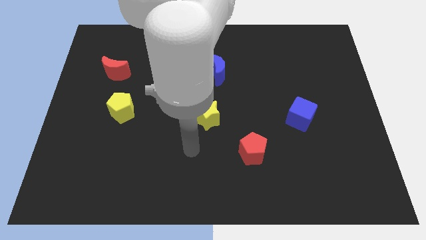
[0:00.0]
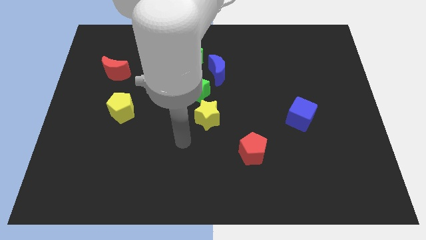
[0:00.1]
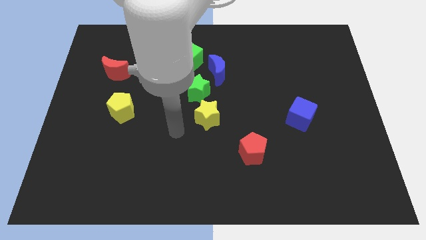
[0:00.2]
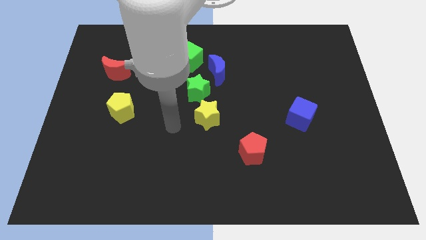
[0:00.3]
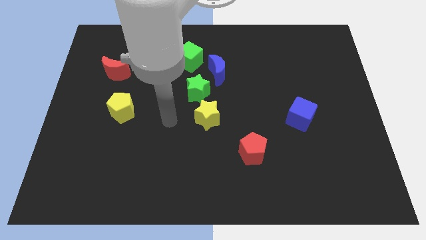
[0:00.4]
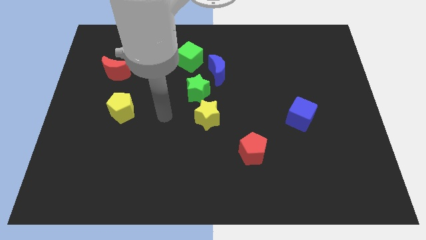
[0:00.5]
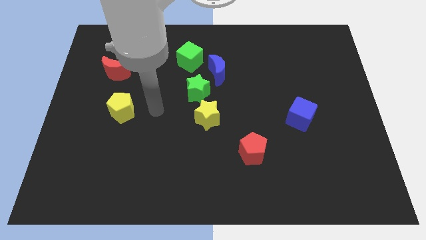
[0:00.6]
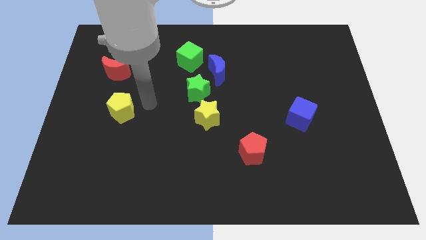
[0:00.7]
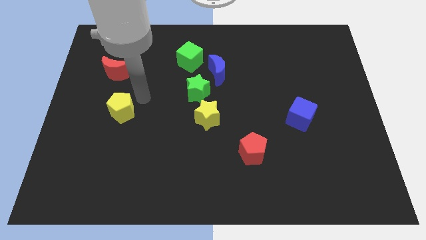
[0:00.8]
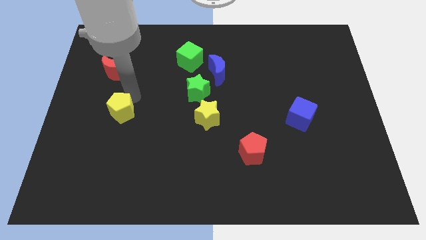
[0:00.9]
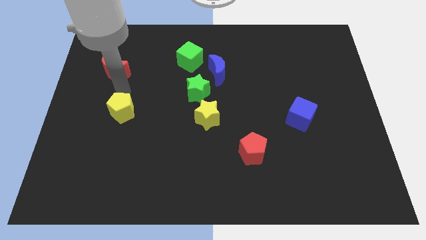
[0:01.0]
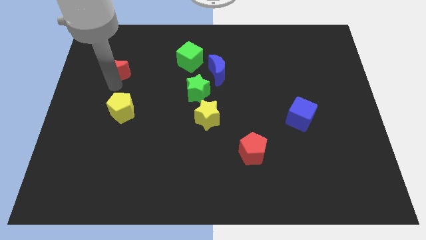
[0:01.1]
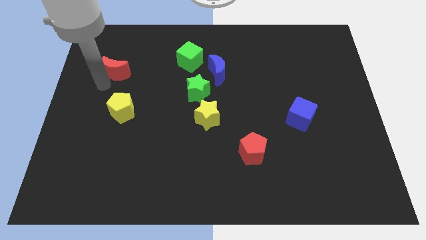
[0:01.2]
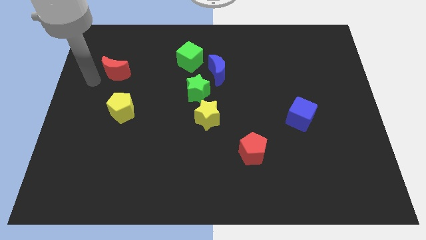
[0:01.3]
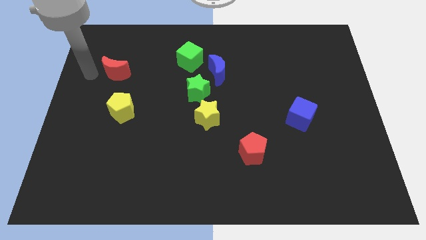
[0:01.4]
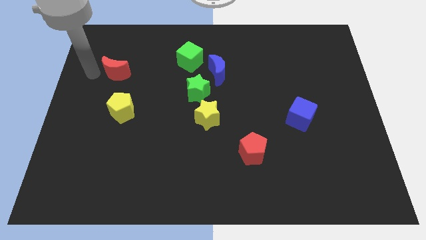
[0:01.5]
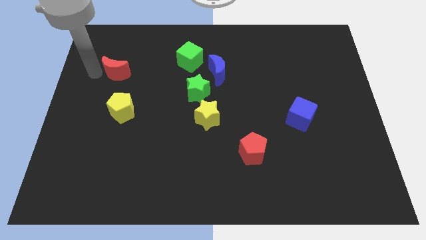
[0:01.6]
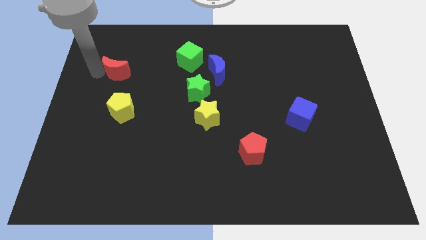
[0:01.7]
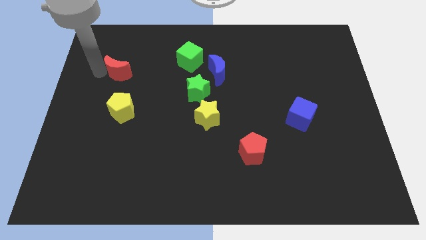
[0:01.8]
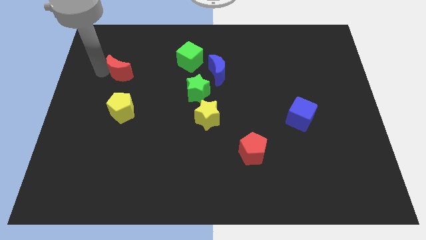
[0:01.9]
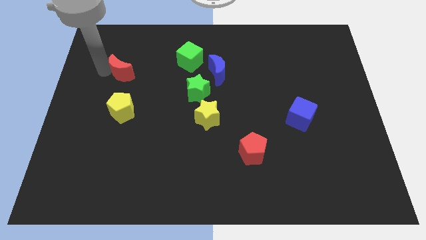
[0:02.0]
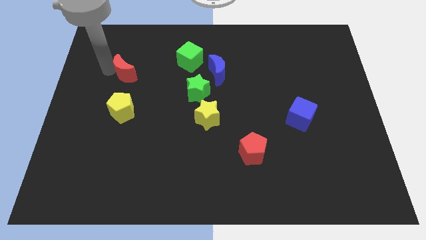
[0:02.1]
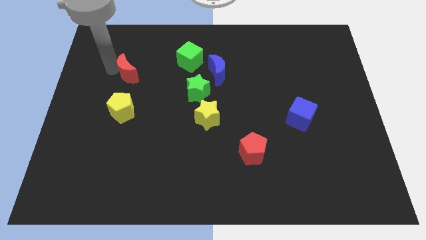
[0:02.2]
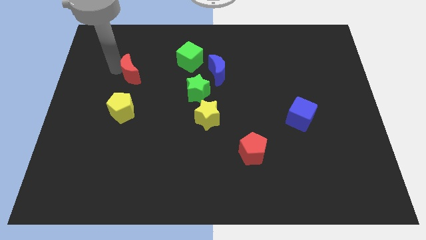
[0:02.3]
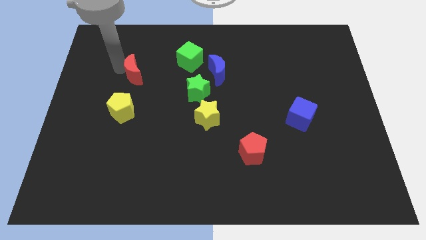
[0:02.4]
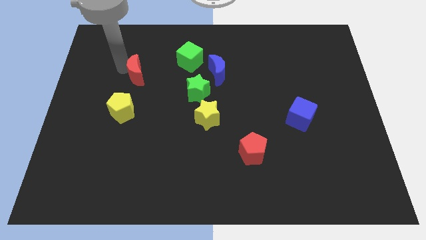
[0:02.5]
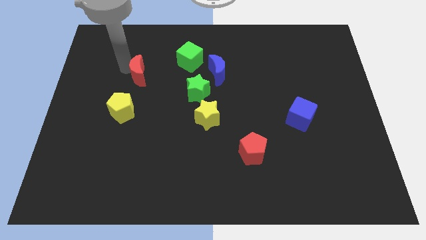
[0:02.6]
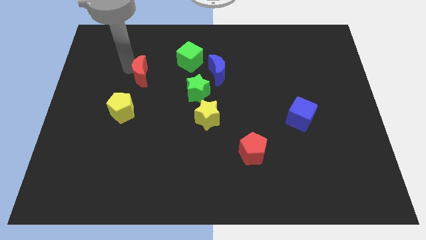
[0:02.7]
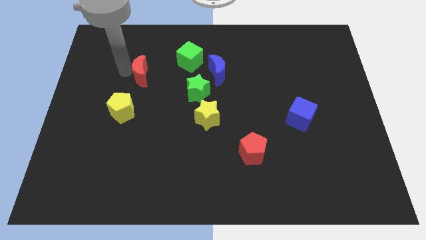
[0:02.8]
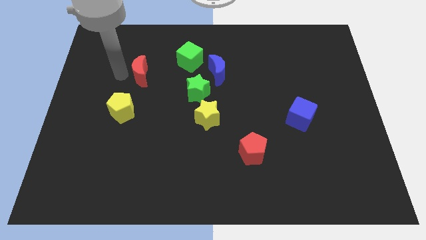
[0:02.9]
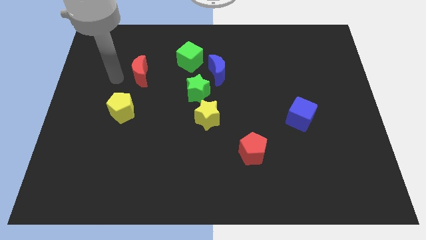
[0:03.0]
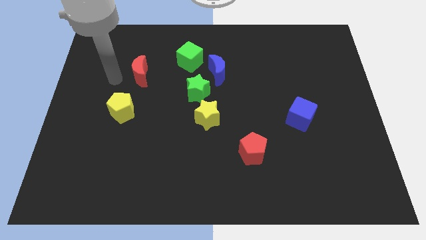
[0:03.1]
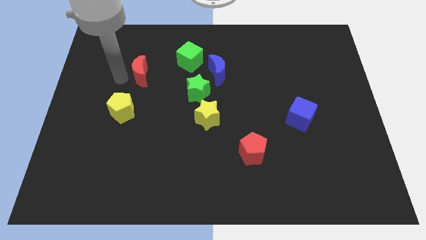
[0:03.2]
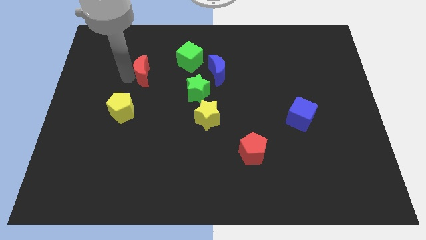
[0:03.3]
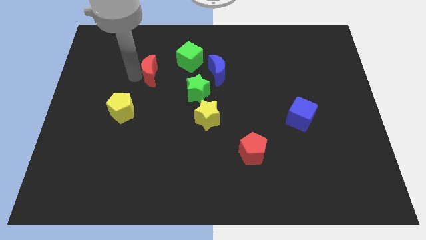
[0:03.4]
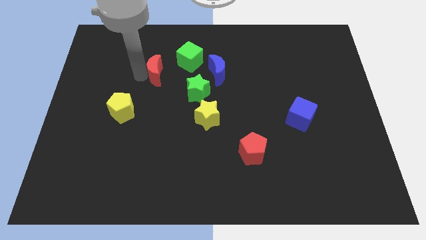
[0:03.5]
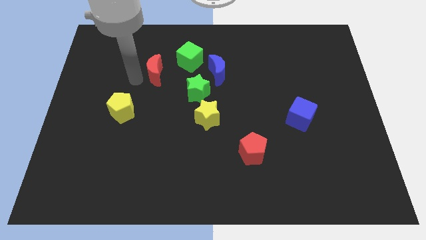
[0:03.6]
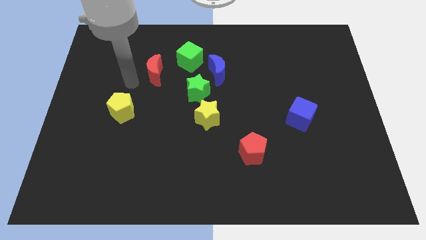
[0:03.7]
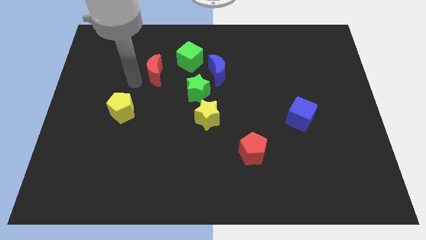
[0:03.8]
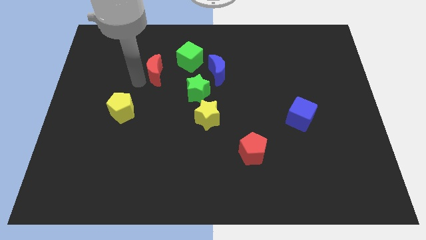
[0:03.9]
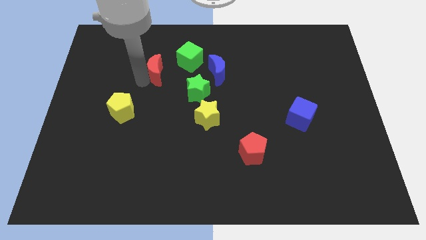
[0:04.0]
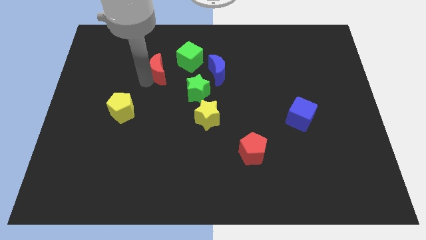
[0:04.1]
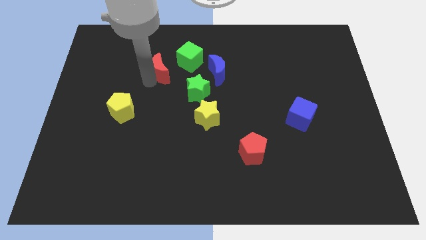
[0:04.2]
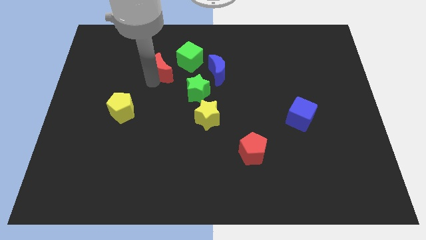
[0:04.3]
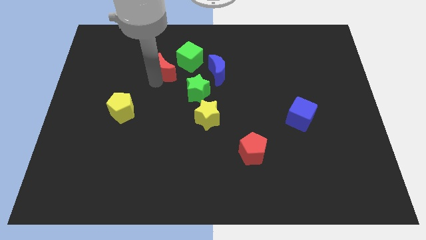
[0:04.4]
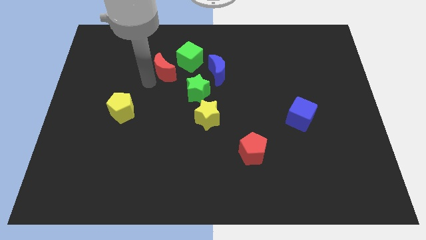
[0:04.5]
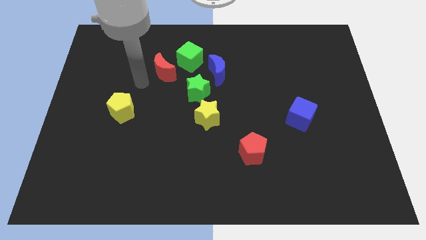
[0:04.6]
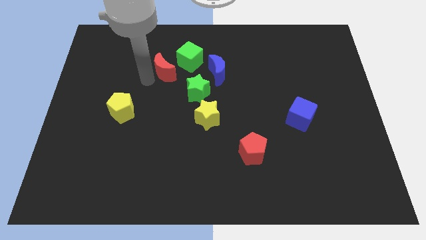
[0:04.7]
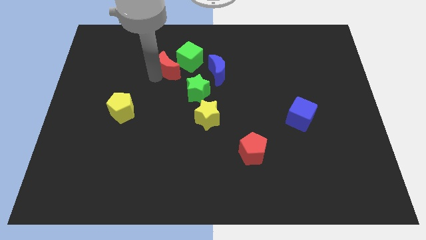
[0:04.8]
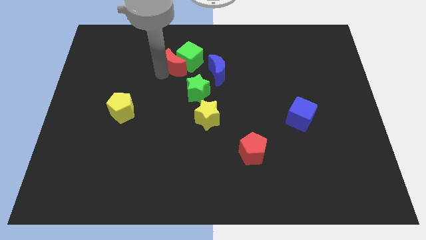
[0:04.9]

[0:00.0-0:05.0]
push the red moon to the green cube

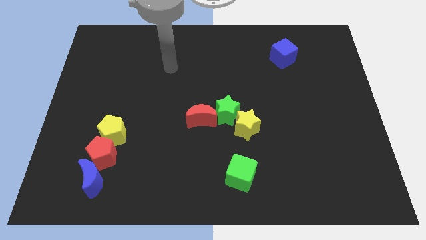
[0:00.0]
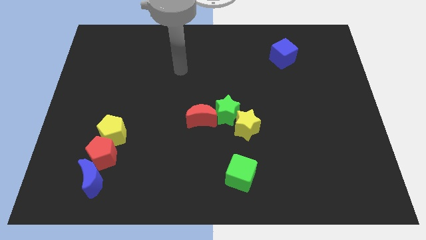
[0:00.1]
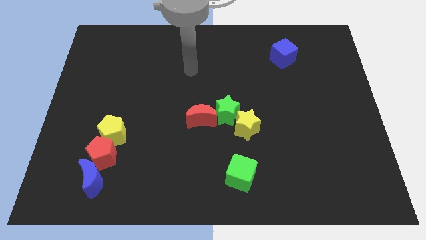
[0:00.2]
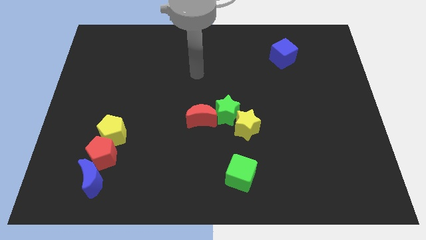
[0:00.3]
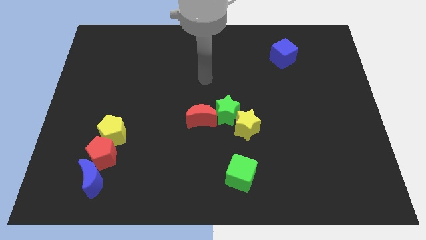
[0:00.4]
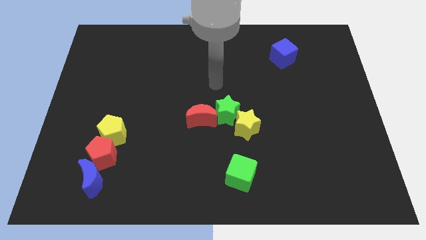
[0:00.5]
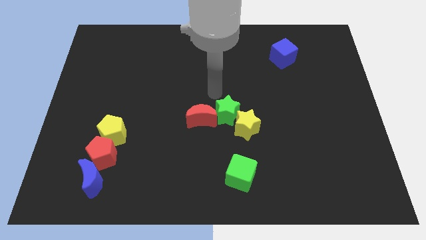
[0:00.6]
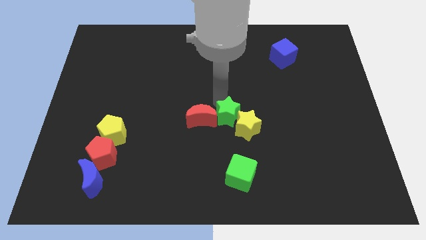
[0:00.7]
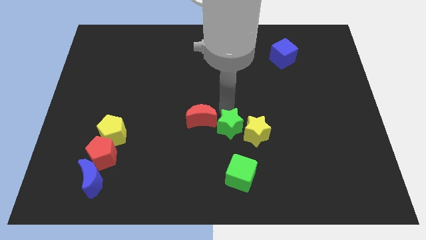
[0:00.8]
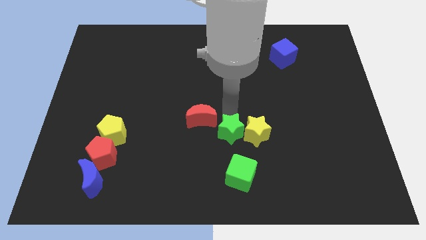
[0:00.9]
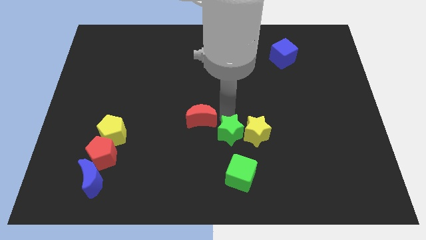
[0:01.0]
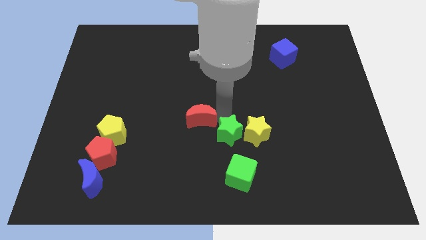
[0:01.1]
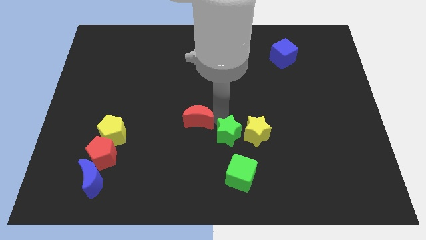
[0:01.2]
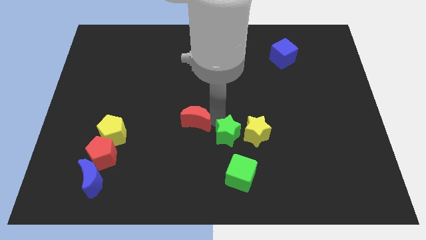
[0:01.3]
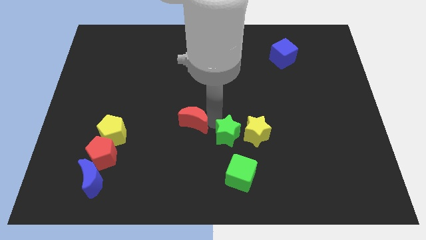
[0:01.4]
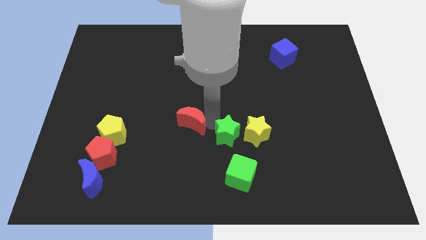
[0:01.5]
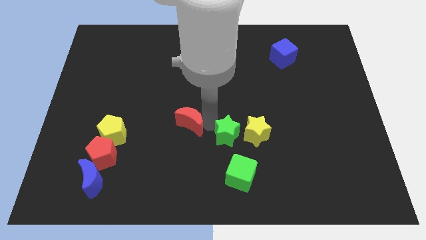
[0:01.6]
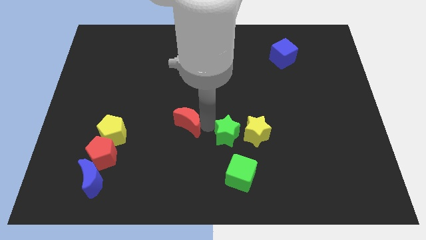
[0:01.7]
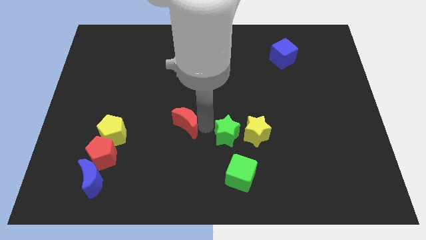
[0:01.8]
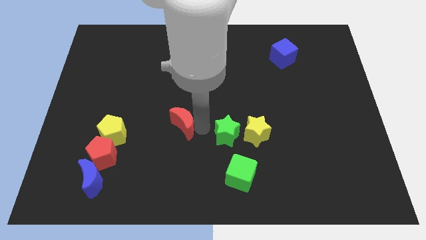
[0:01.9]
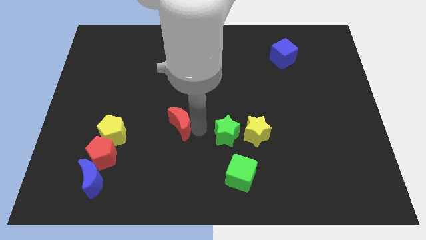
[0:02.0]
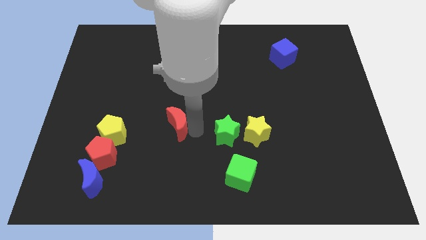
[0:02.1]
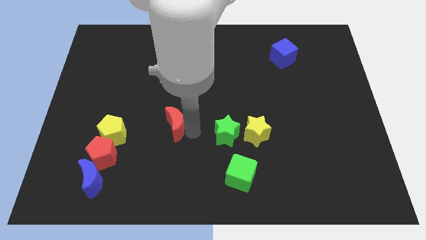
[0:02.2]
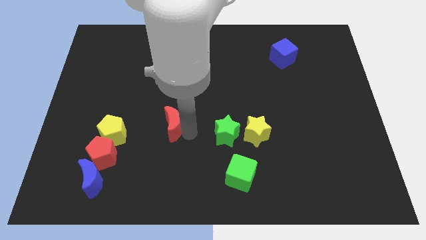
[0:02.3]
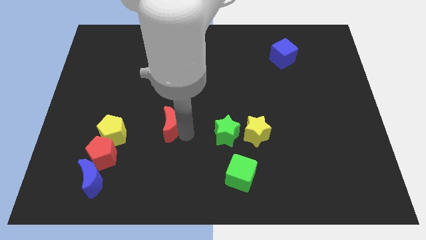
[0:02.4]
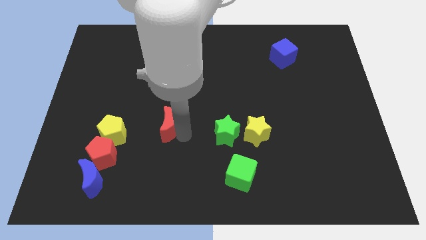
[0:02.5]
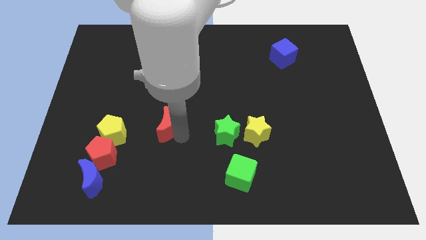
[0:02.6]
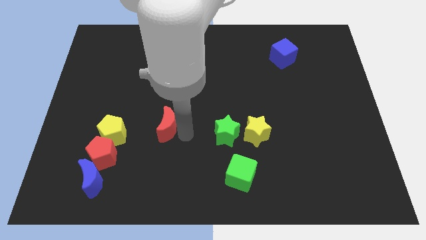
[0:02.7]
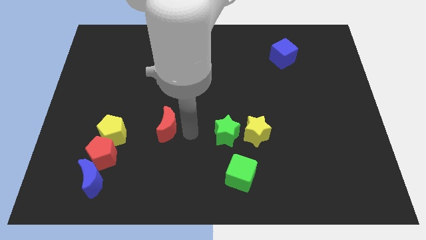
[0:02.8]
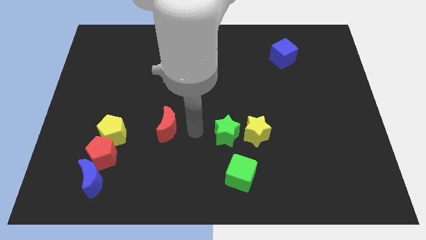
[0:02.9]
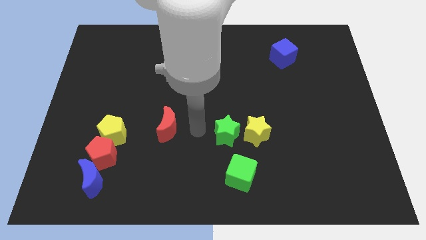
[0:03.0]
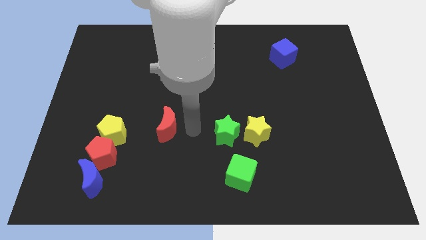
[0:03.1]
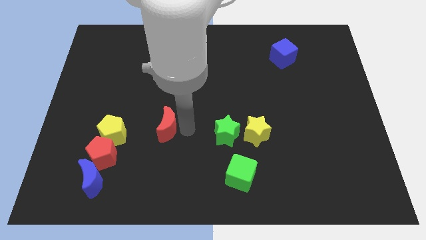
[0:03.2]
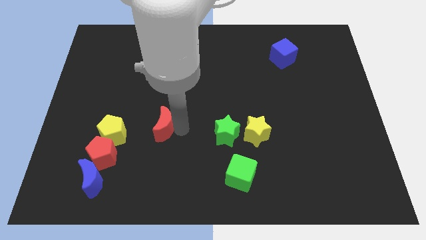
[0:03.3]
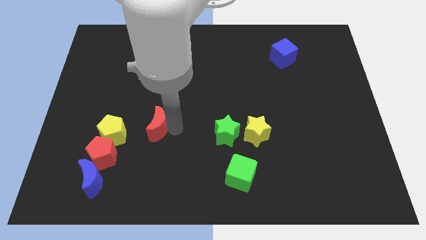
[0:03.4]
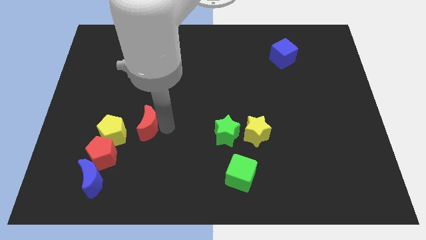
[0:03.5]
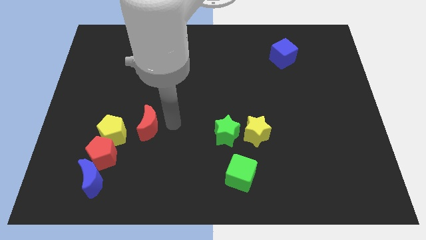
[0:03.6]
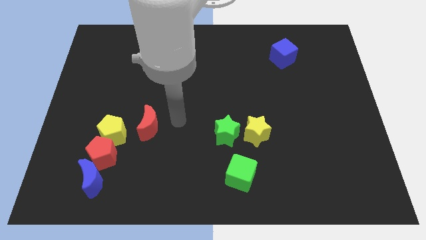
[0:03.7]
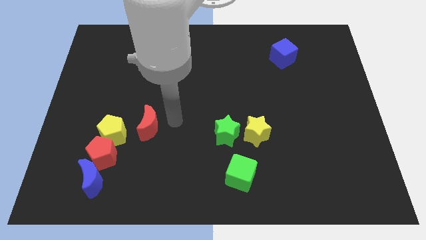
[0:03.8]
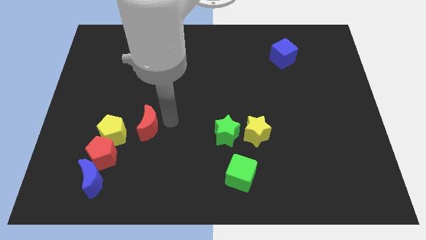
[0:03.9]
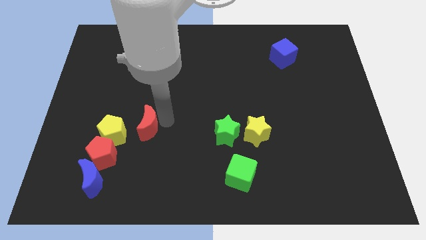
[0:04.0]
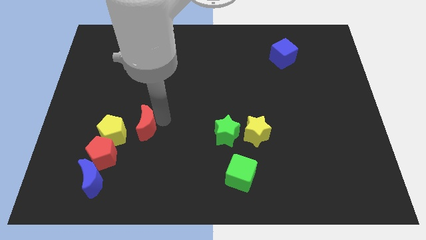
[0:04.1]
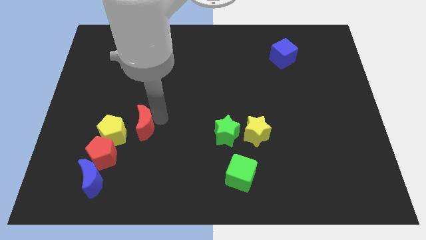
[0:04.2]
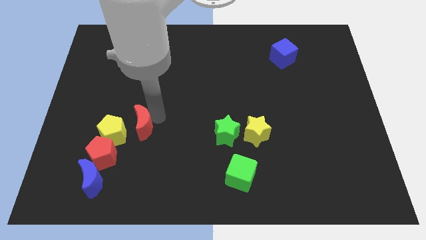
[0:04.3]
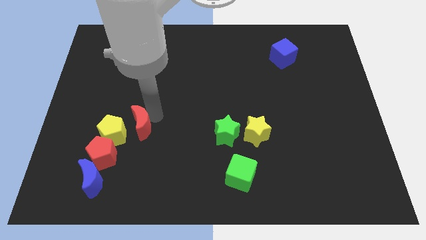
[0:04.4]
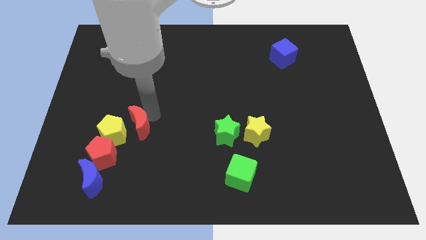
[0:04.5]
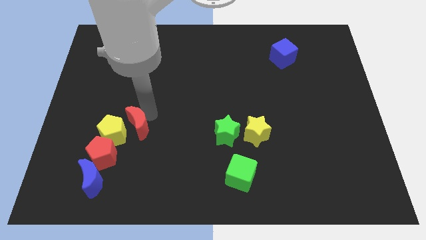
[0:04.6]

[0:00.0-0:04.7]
push the red moon next to the yellow pentagon
